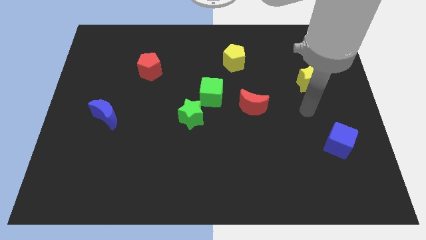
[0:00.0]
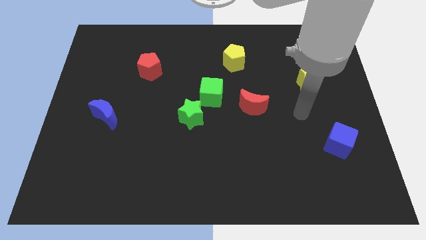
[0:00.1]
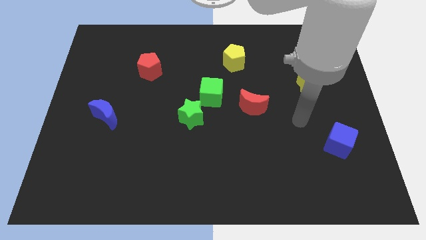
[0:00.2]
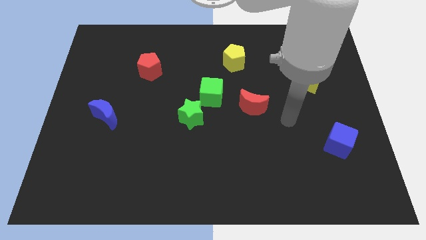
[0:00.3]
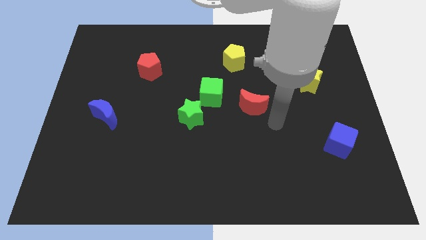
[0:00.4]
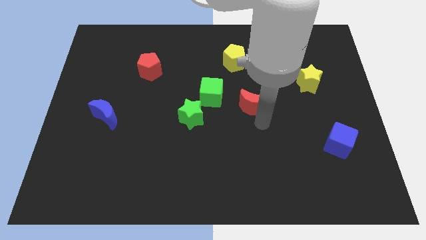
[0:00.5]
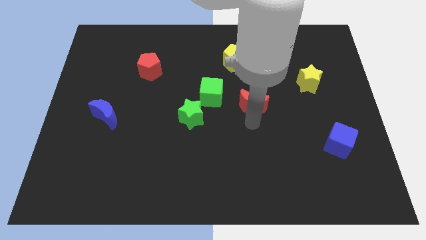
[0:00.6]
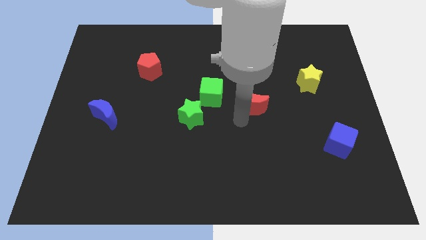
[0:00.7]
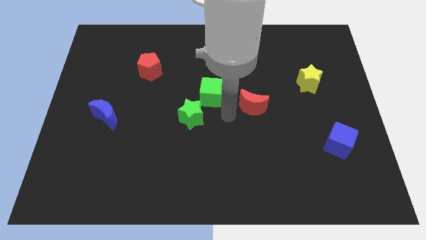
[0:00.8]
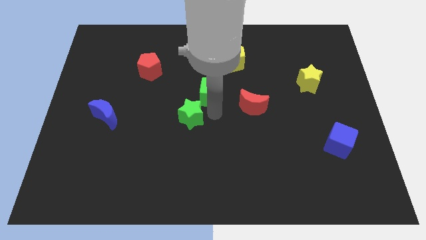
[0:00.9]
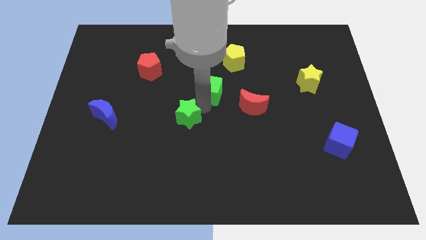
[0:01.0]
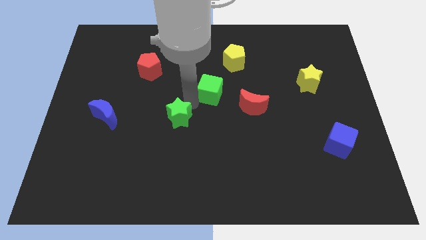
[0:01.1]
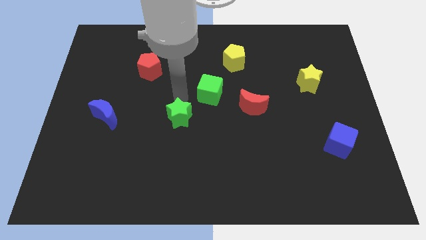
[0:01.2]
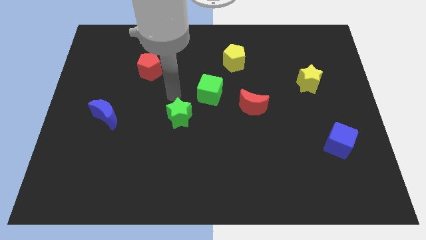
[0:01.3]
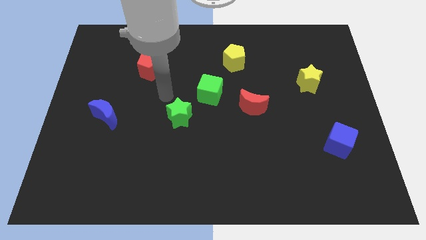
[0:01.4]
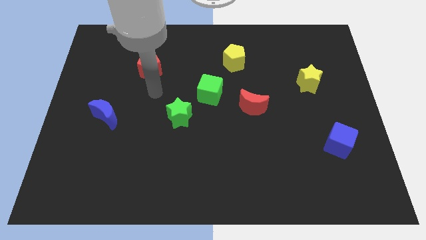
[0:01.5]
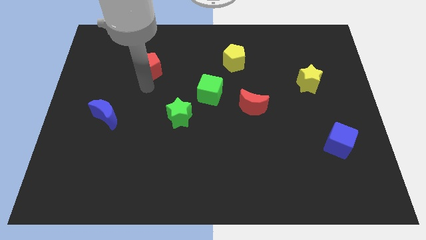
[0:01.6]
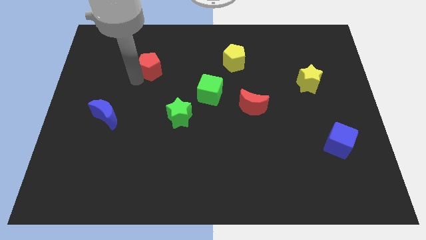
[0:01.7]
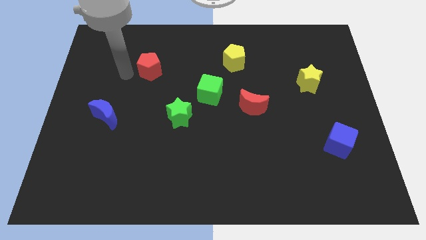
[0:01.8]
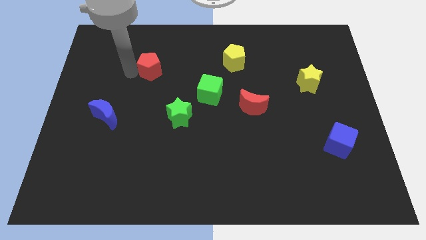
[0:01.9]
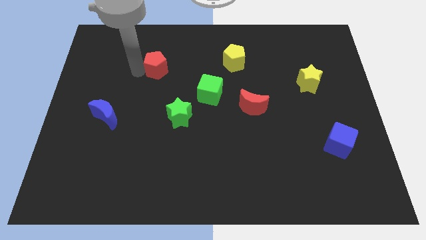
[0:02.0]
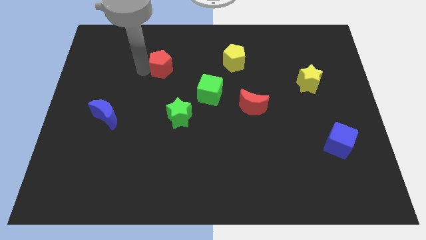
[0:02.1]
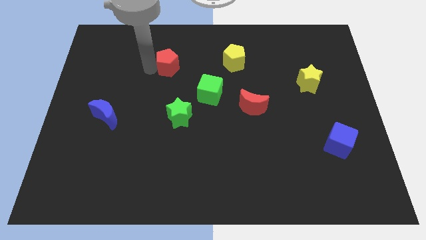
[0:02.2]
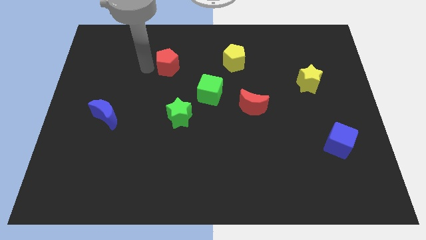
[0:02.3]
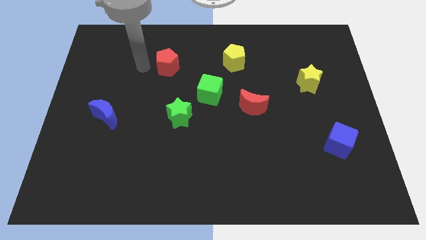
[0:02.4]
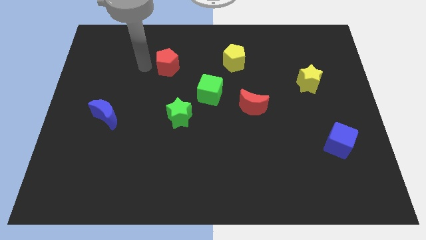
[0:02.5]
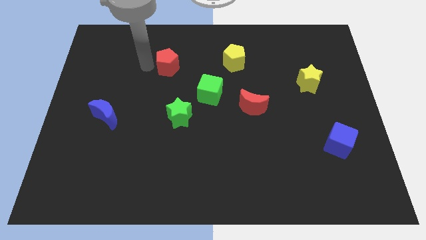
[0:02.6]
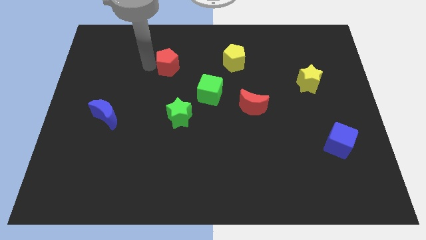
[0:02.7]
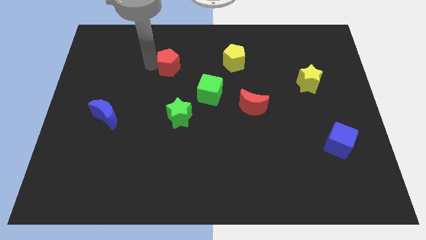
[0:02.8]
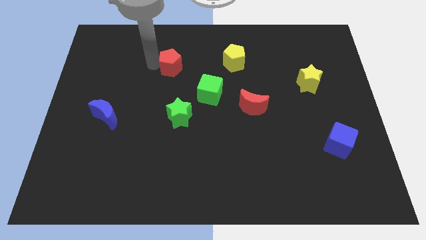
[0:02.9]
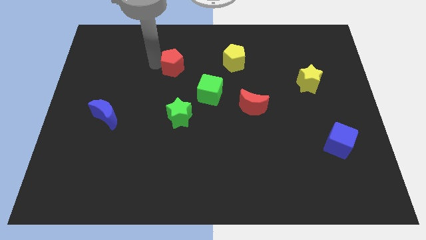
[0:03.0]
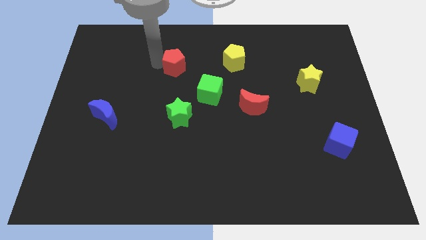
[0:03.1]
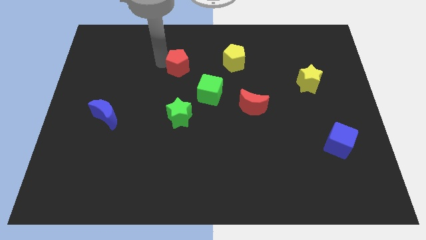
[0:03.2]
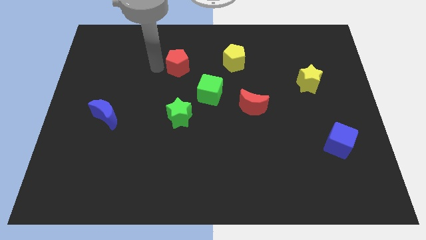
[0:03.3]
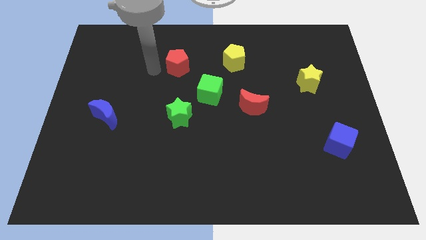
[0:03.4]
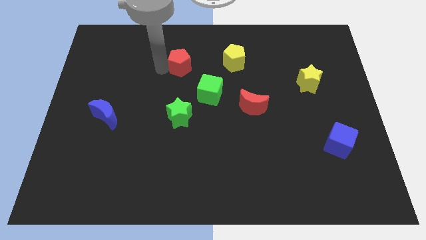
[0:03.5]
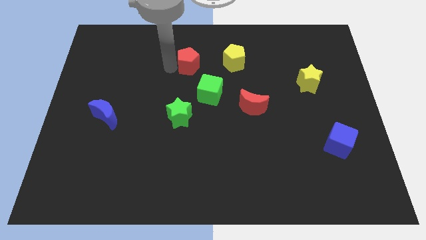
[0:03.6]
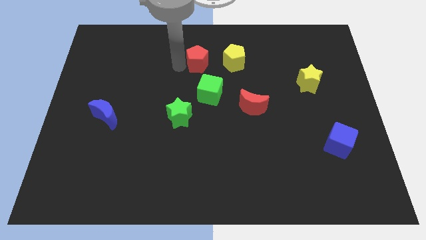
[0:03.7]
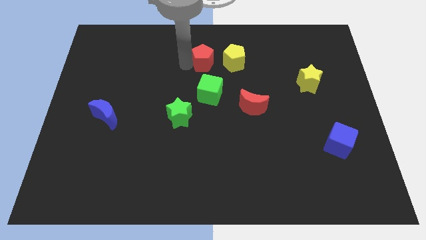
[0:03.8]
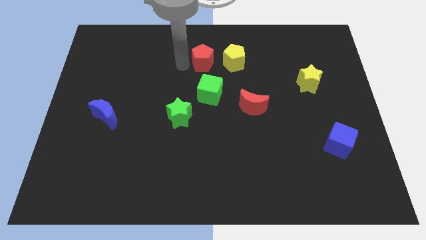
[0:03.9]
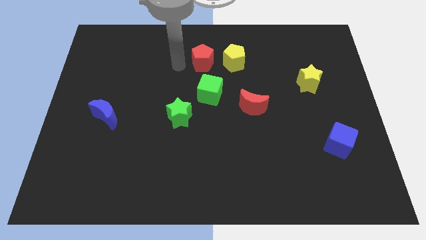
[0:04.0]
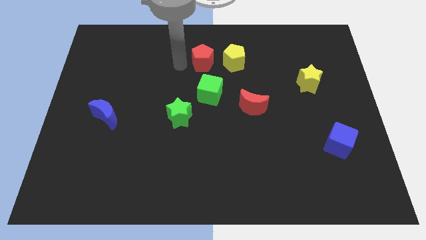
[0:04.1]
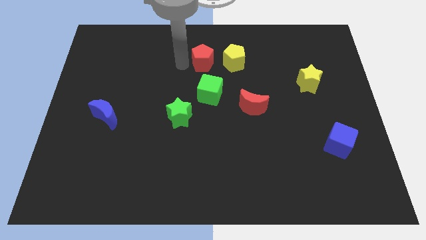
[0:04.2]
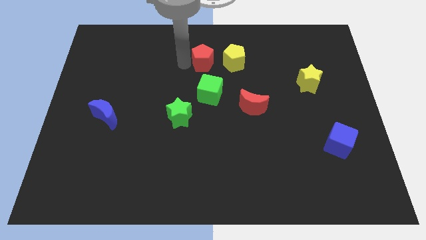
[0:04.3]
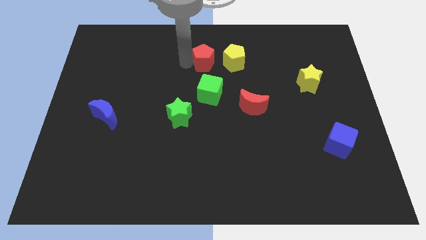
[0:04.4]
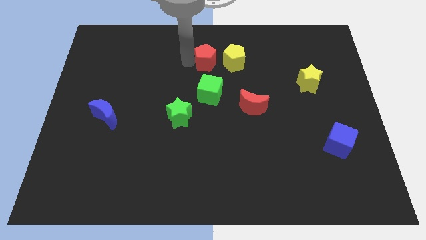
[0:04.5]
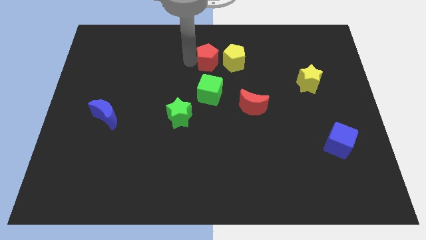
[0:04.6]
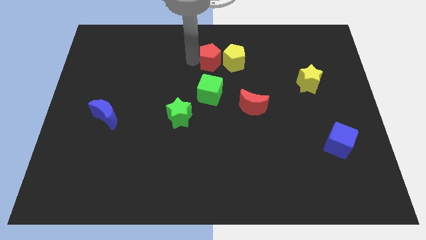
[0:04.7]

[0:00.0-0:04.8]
push the red pentagon towards the yellow pentagon

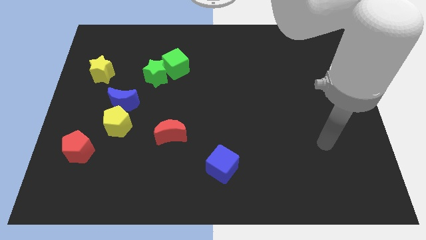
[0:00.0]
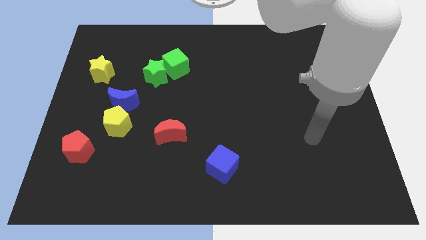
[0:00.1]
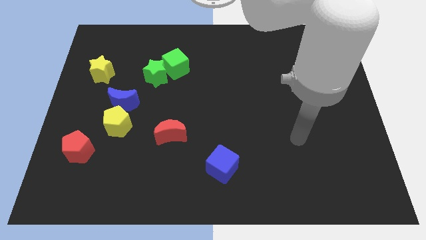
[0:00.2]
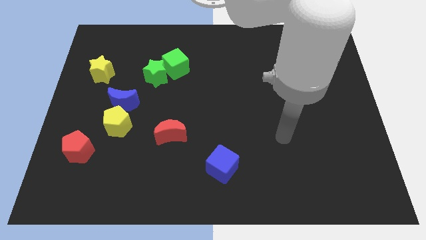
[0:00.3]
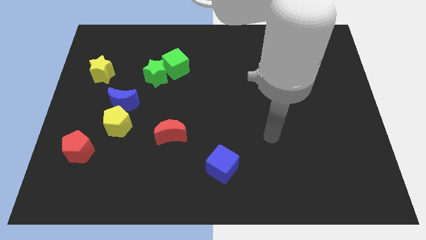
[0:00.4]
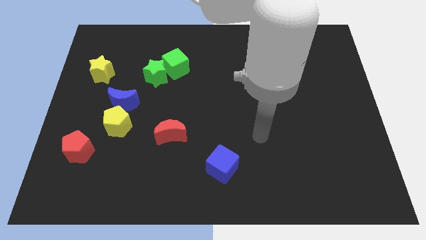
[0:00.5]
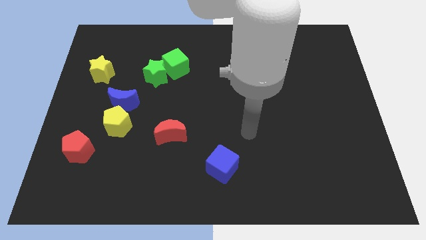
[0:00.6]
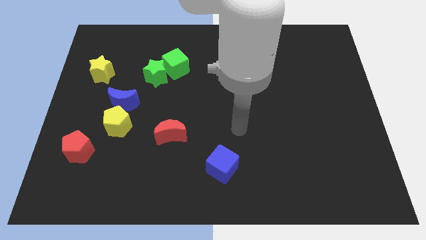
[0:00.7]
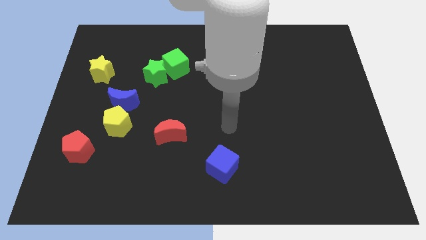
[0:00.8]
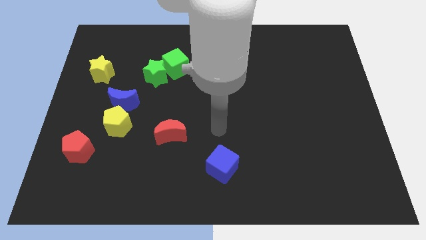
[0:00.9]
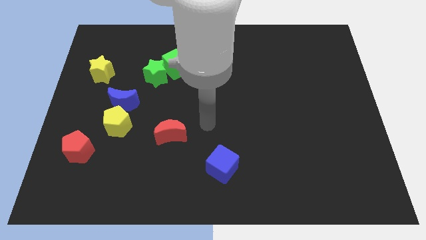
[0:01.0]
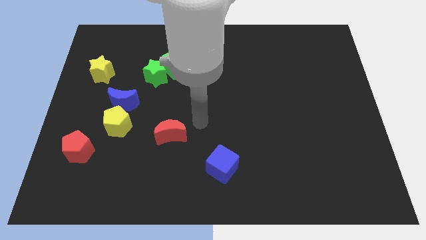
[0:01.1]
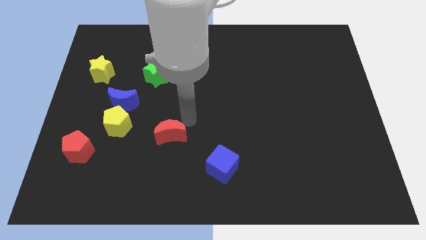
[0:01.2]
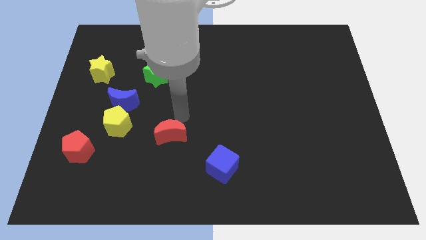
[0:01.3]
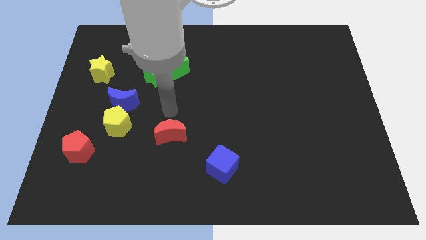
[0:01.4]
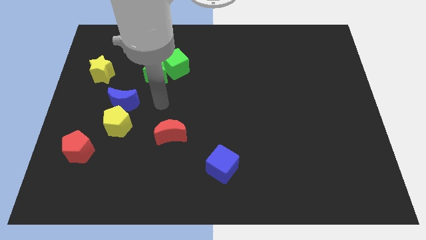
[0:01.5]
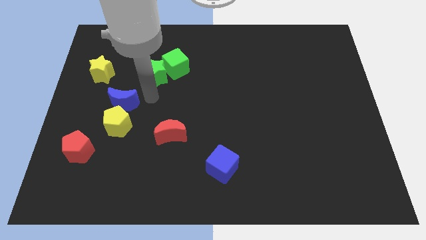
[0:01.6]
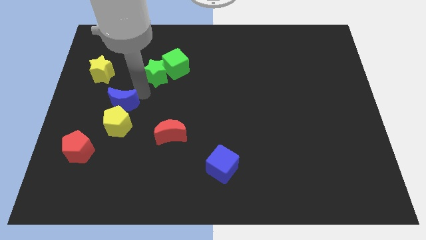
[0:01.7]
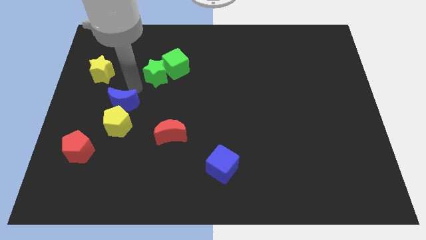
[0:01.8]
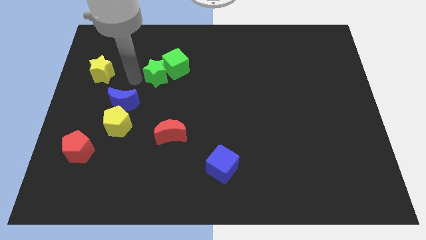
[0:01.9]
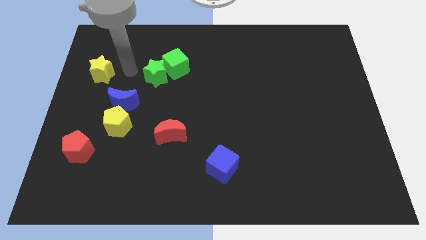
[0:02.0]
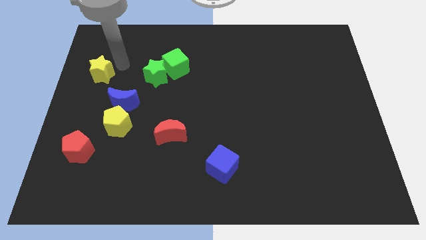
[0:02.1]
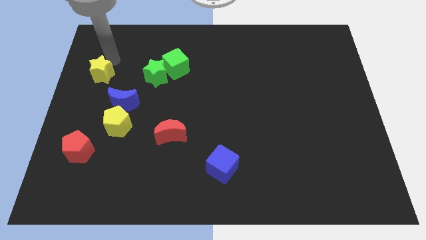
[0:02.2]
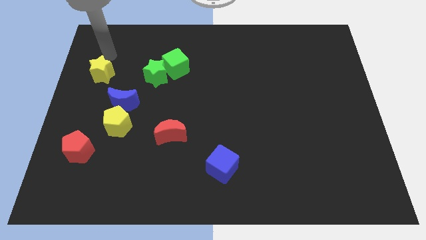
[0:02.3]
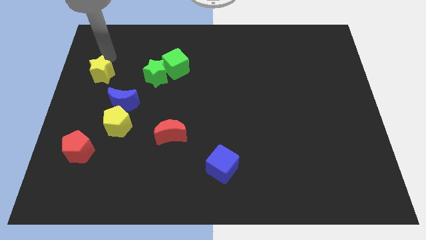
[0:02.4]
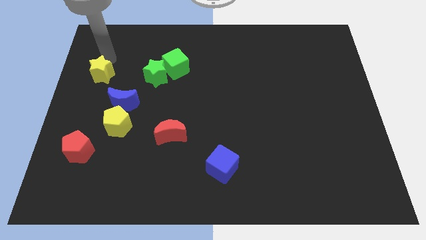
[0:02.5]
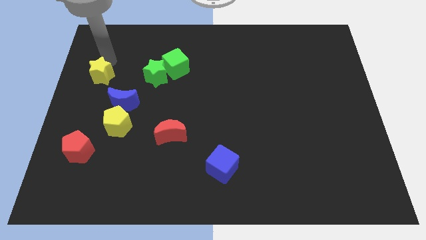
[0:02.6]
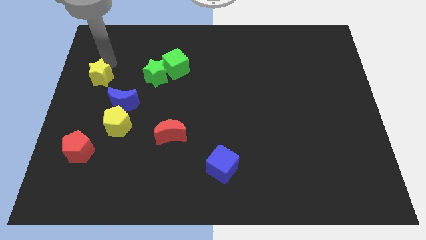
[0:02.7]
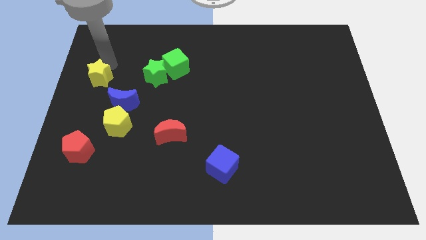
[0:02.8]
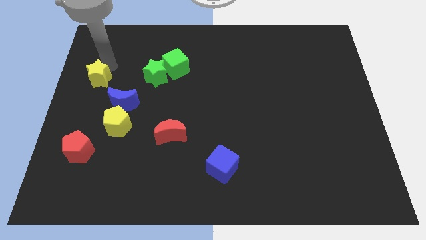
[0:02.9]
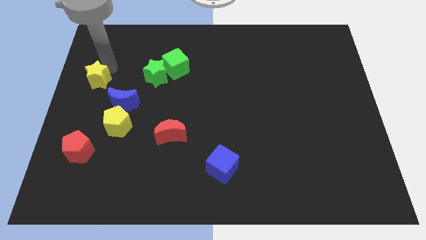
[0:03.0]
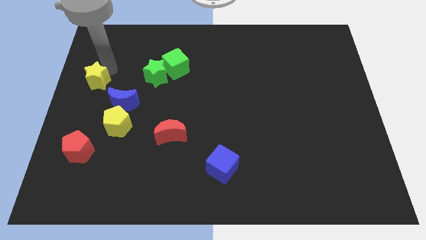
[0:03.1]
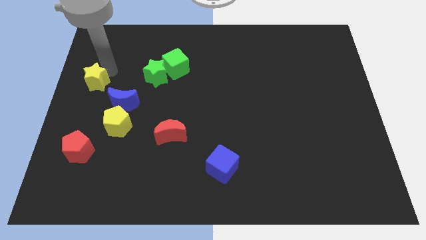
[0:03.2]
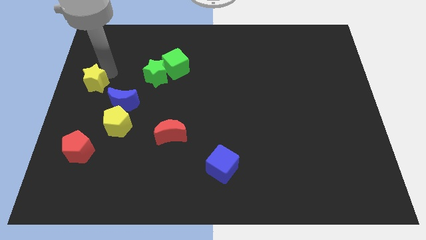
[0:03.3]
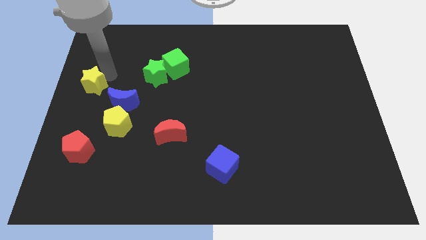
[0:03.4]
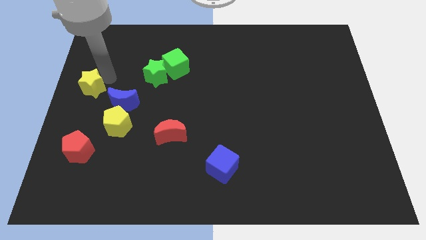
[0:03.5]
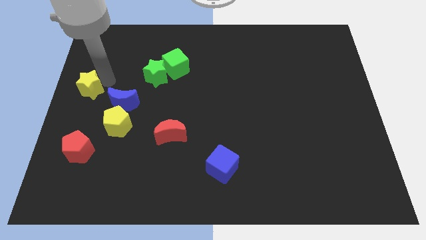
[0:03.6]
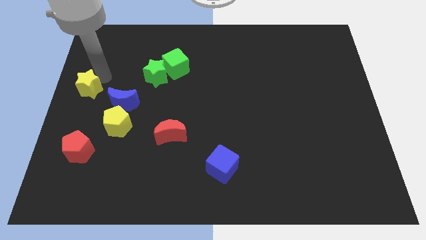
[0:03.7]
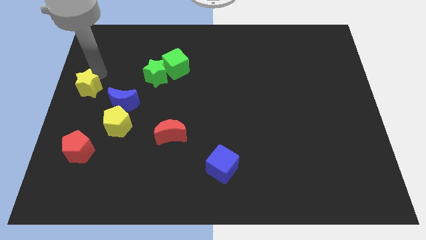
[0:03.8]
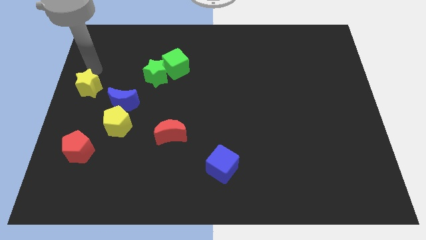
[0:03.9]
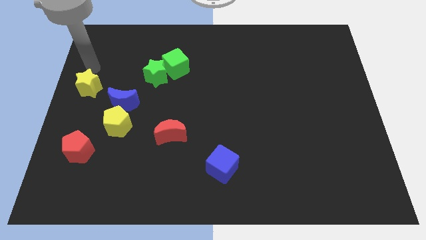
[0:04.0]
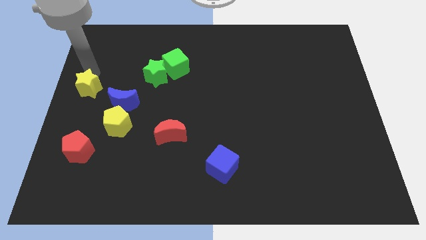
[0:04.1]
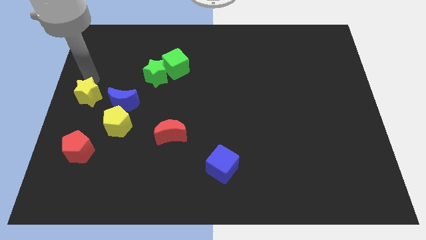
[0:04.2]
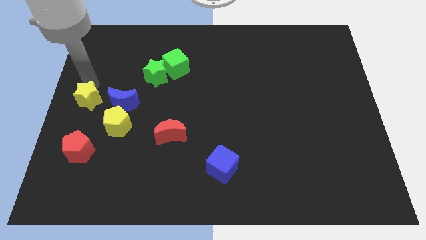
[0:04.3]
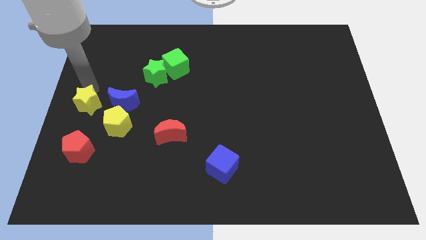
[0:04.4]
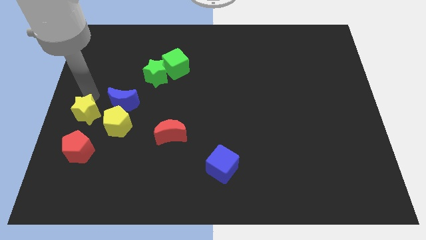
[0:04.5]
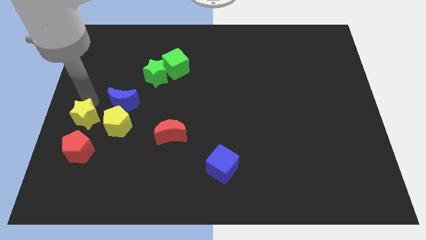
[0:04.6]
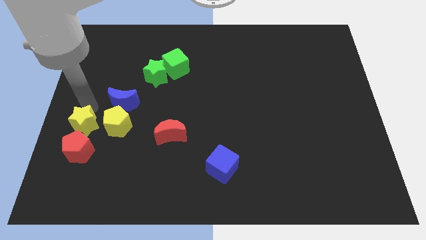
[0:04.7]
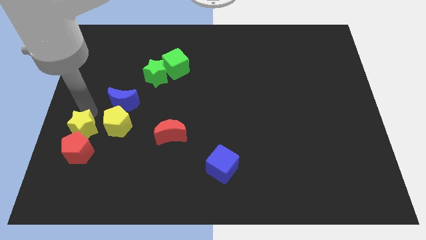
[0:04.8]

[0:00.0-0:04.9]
move the yellow star to the red pentagon
